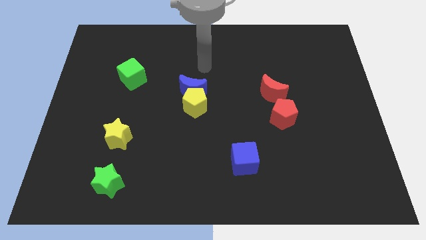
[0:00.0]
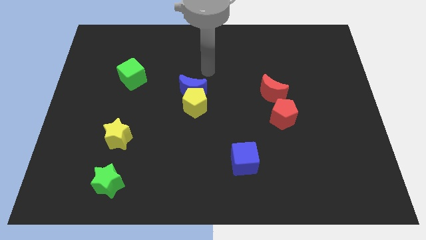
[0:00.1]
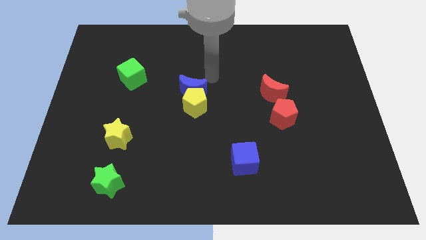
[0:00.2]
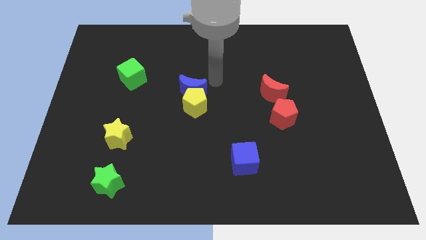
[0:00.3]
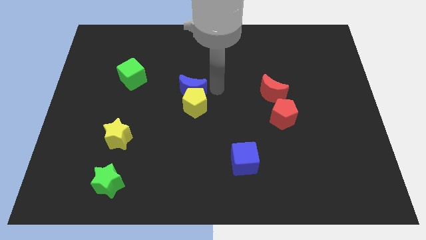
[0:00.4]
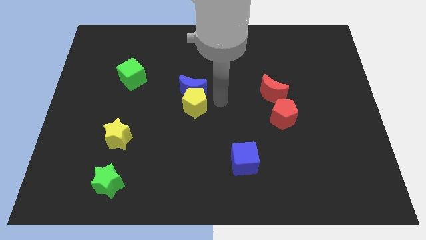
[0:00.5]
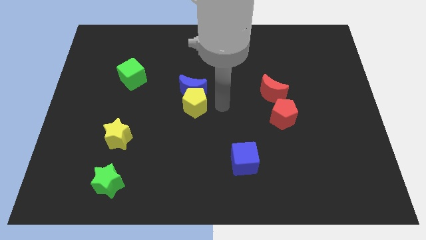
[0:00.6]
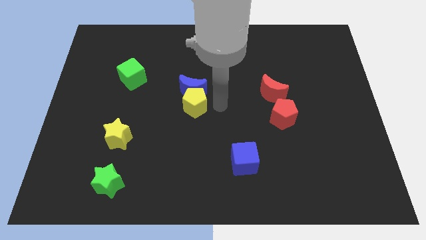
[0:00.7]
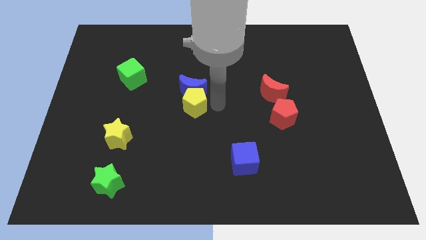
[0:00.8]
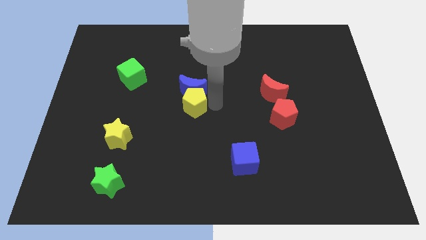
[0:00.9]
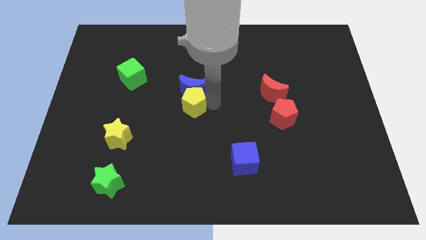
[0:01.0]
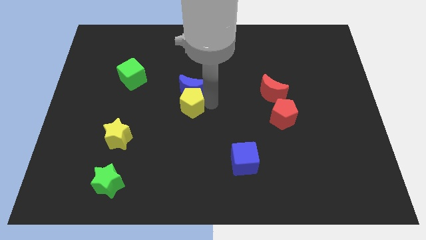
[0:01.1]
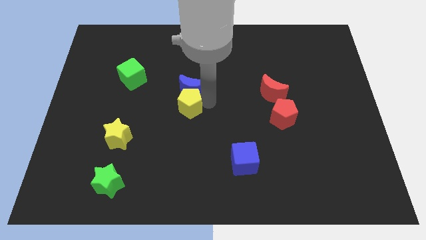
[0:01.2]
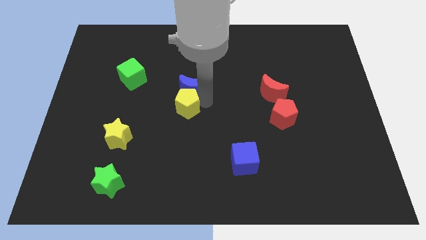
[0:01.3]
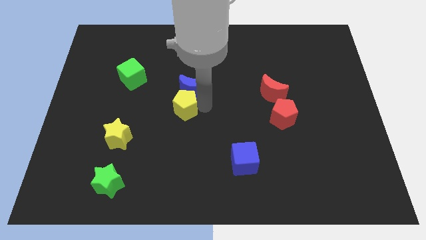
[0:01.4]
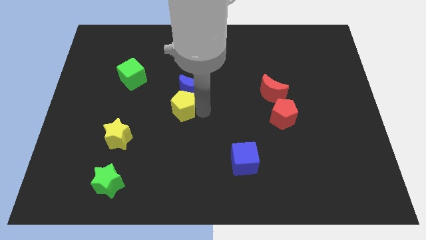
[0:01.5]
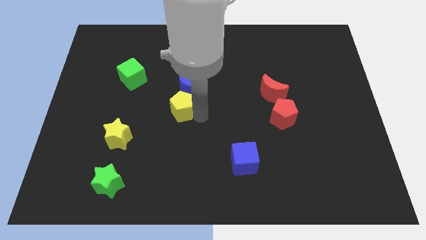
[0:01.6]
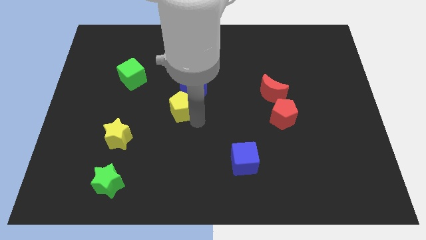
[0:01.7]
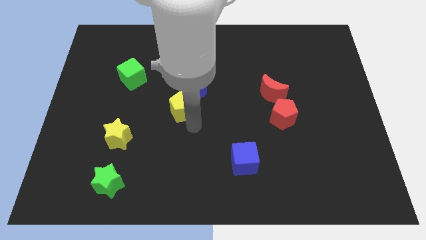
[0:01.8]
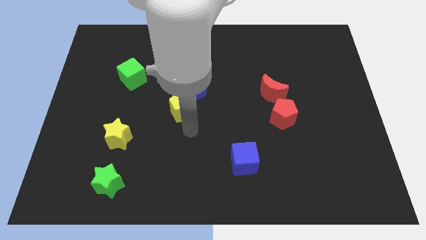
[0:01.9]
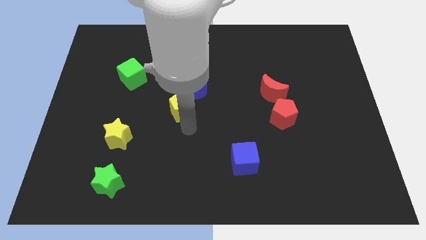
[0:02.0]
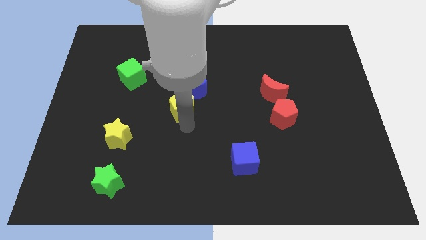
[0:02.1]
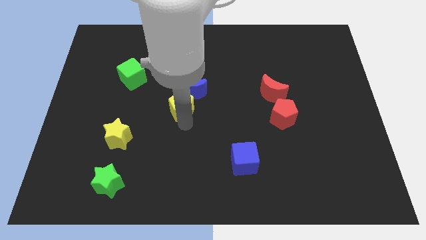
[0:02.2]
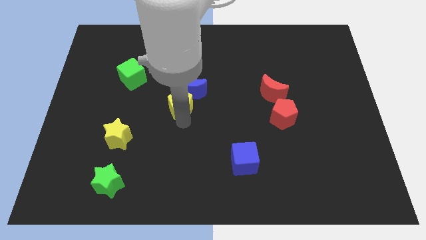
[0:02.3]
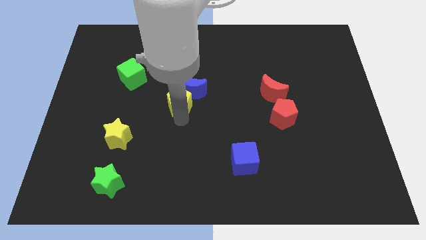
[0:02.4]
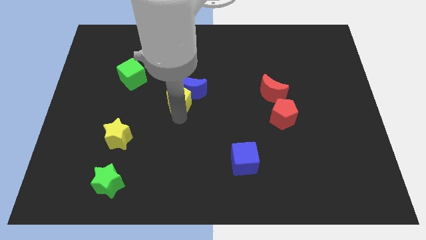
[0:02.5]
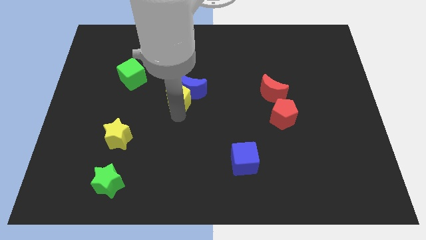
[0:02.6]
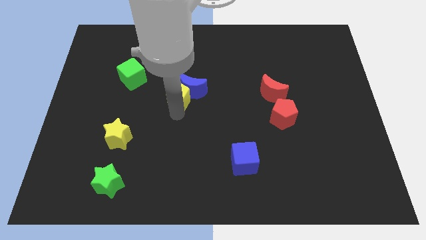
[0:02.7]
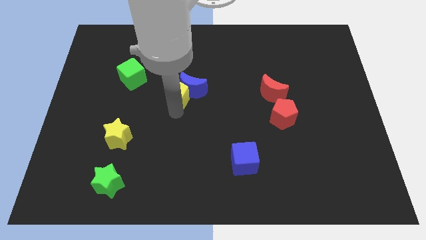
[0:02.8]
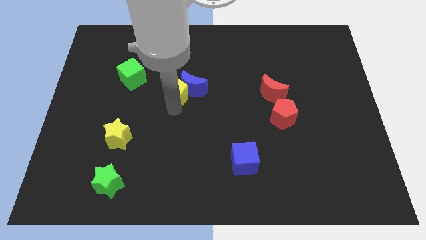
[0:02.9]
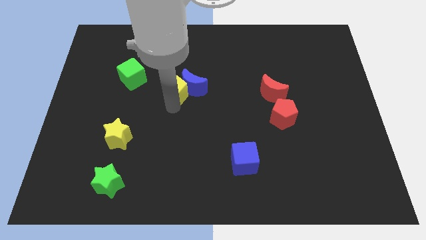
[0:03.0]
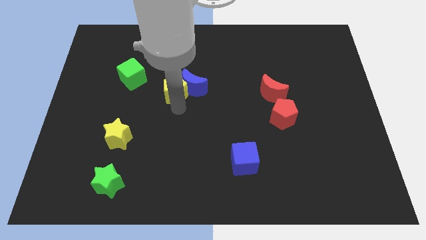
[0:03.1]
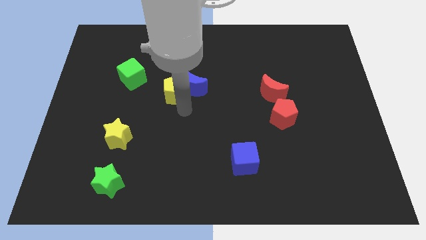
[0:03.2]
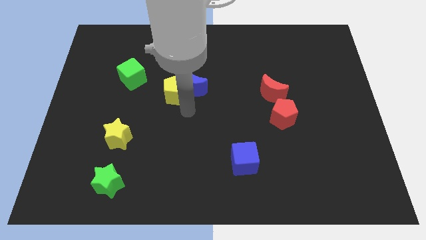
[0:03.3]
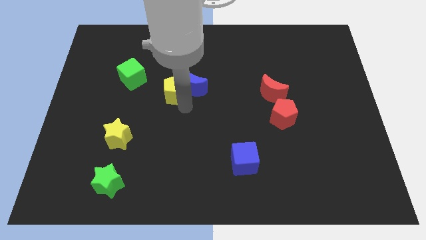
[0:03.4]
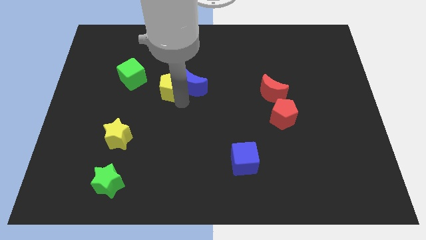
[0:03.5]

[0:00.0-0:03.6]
slide the yellow pentagon somewhat diagonally upwards and left

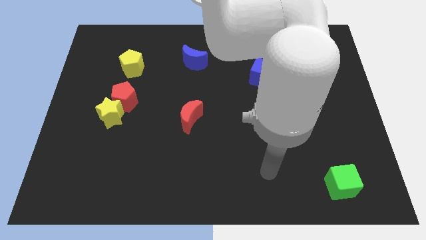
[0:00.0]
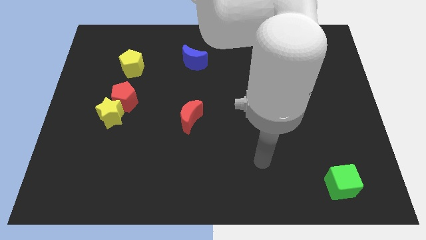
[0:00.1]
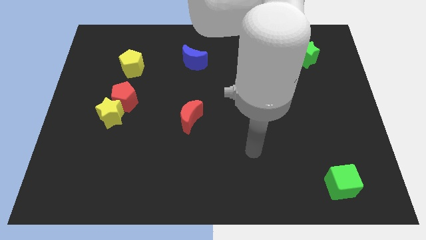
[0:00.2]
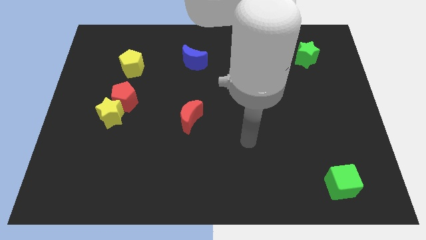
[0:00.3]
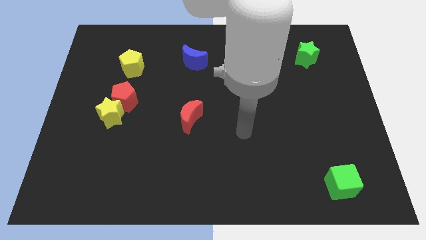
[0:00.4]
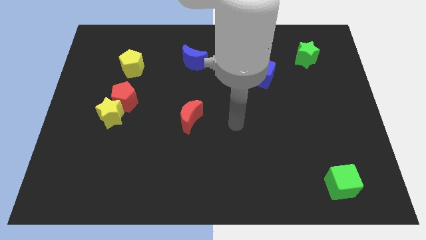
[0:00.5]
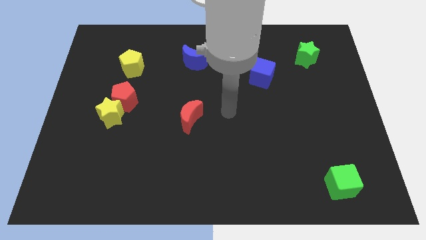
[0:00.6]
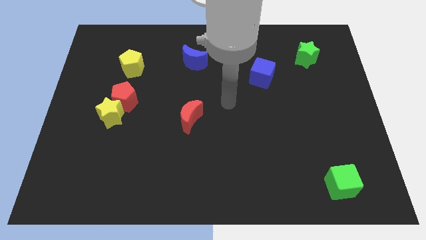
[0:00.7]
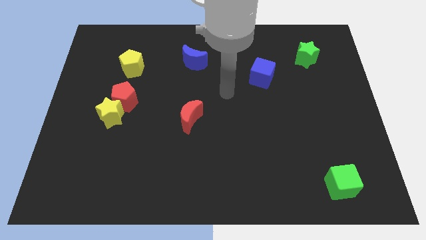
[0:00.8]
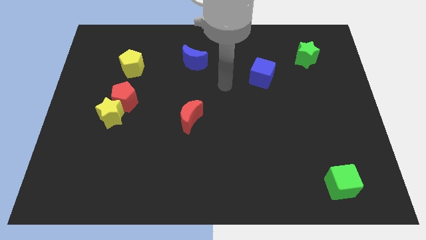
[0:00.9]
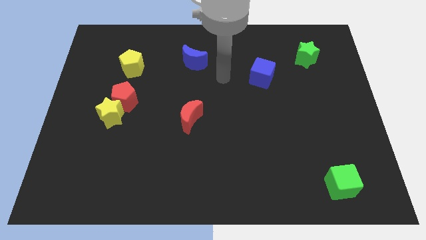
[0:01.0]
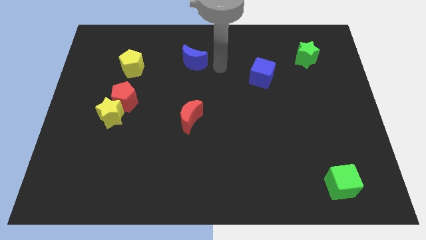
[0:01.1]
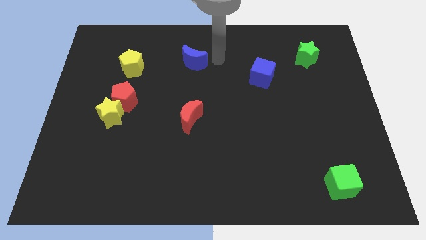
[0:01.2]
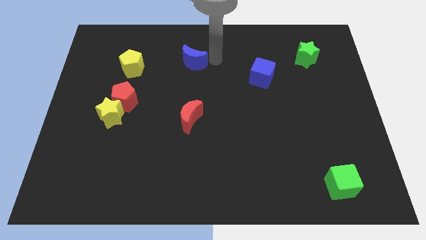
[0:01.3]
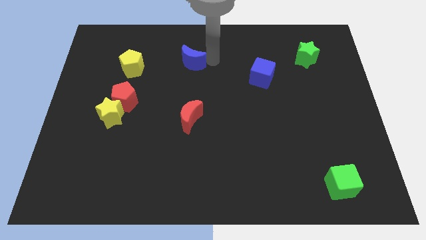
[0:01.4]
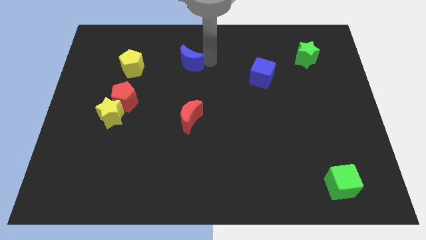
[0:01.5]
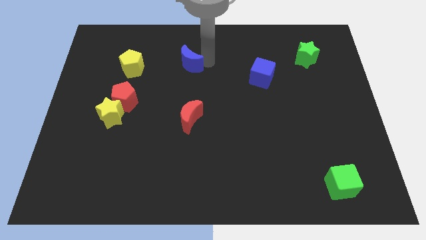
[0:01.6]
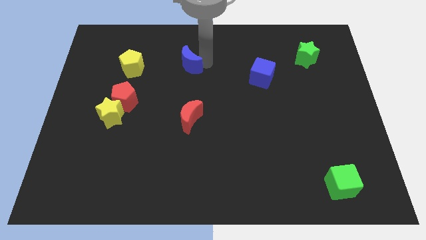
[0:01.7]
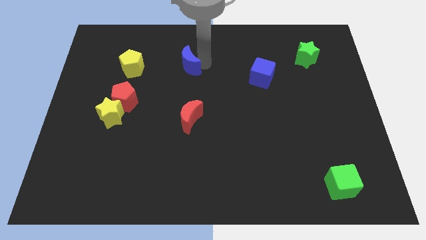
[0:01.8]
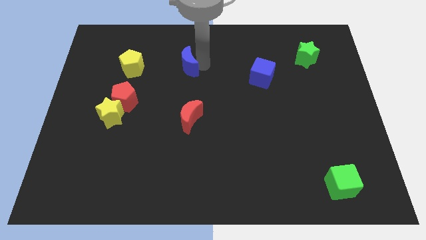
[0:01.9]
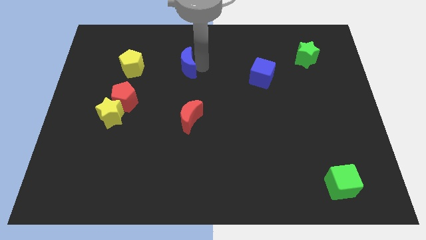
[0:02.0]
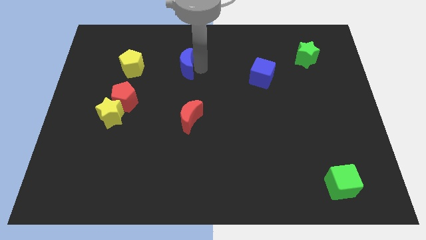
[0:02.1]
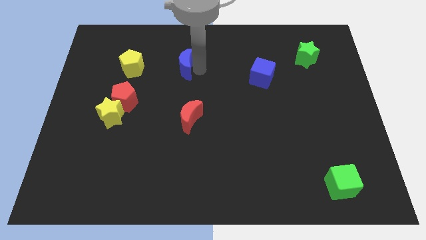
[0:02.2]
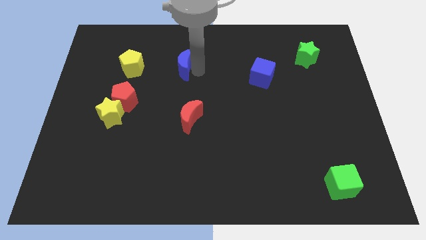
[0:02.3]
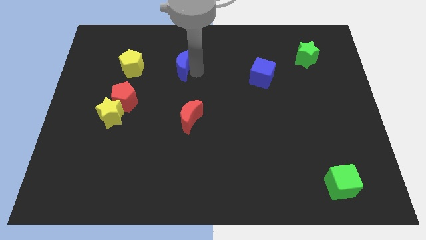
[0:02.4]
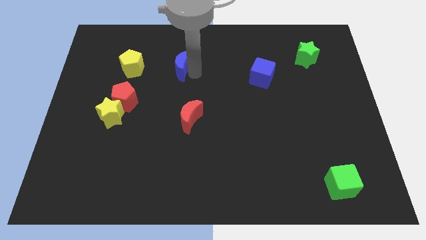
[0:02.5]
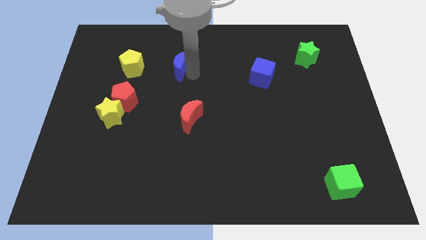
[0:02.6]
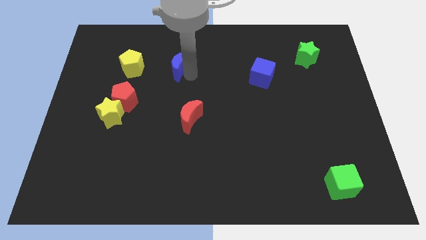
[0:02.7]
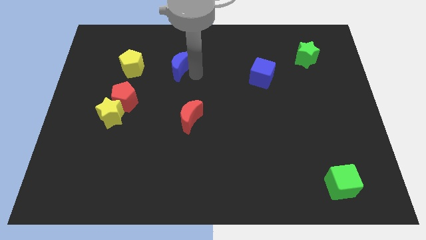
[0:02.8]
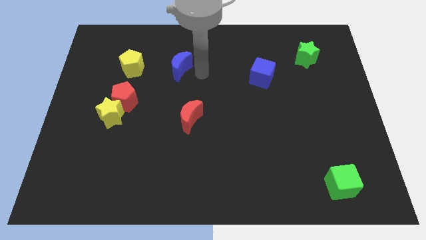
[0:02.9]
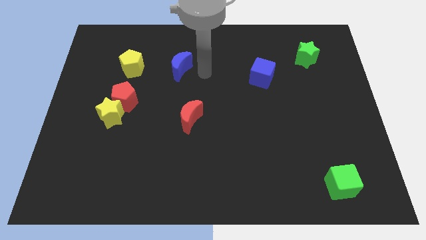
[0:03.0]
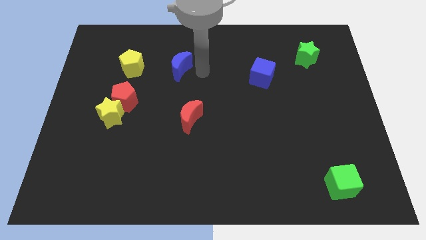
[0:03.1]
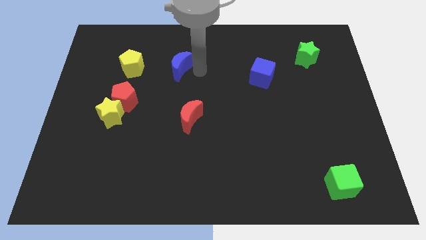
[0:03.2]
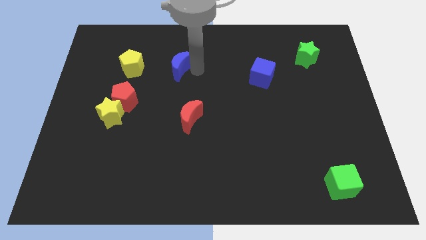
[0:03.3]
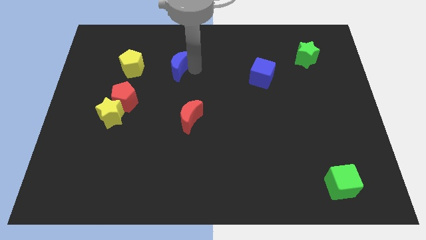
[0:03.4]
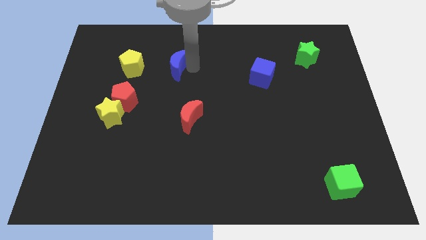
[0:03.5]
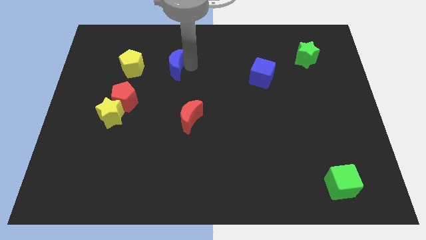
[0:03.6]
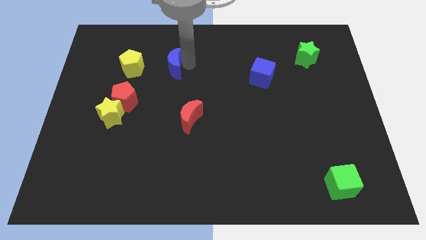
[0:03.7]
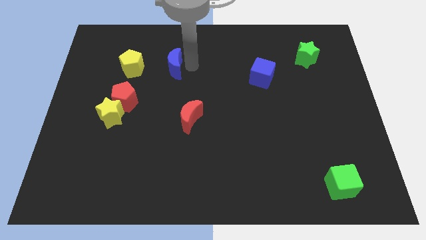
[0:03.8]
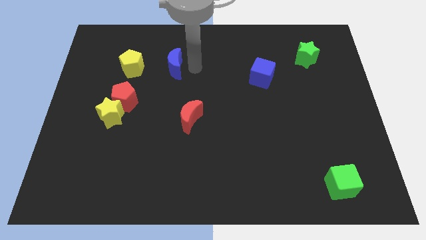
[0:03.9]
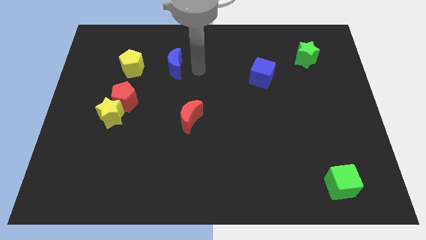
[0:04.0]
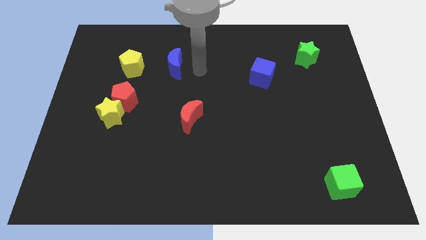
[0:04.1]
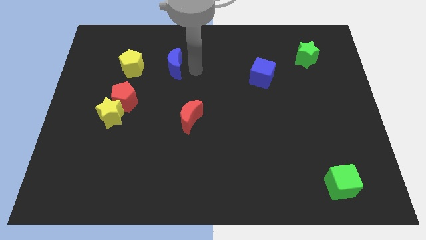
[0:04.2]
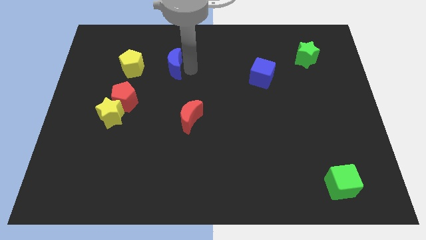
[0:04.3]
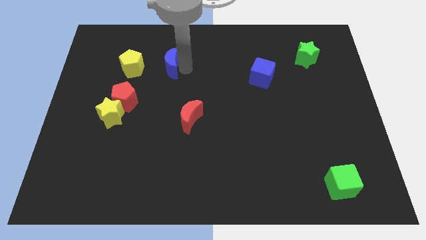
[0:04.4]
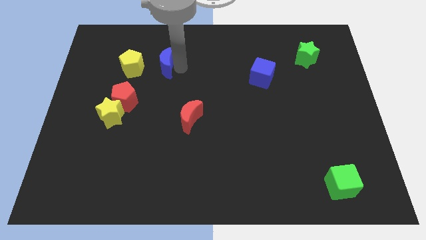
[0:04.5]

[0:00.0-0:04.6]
slide the blue moon somewhat to the left
